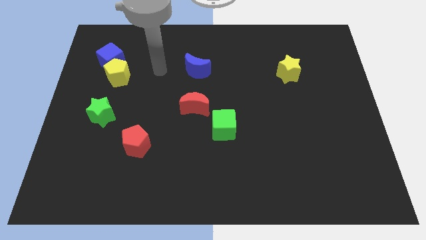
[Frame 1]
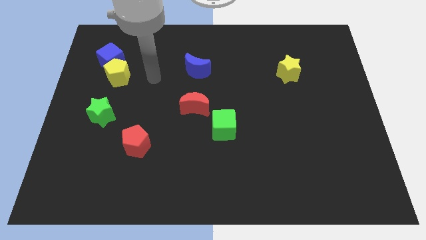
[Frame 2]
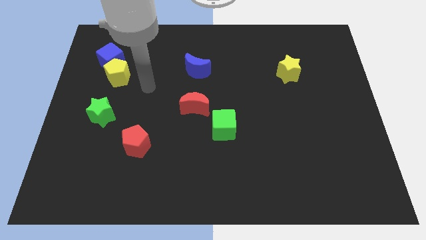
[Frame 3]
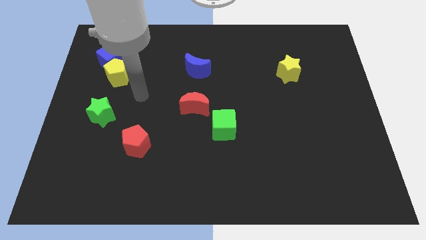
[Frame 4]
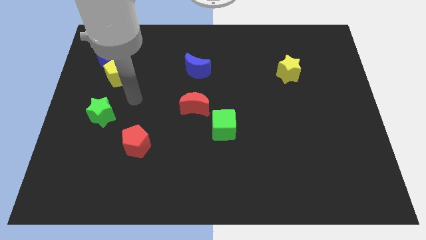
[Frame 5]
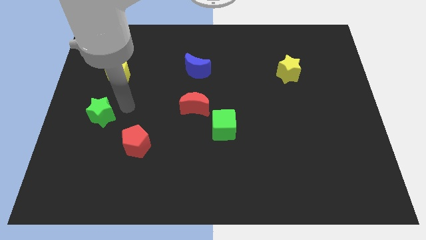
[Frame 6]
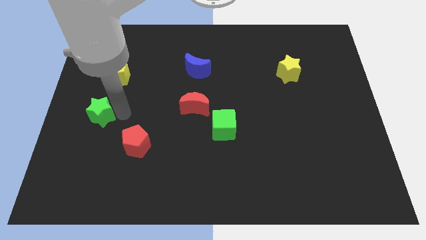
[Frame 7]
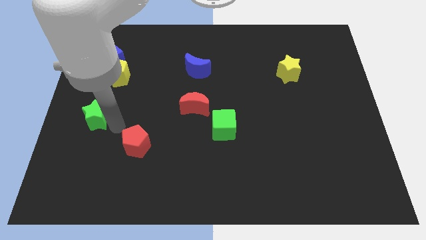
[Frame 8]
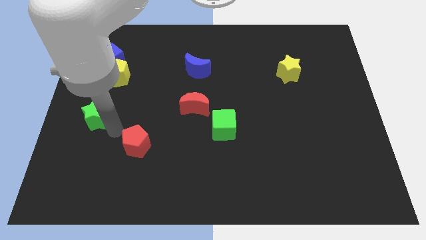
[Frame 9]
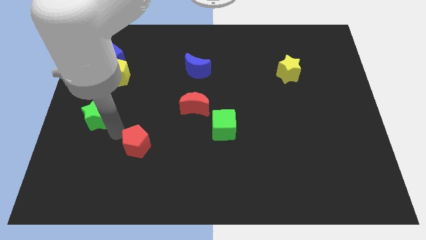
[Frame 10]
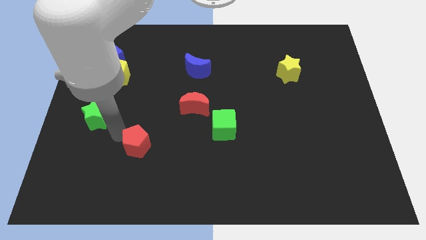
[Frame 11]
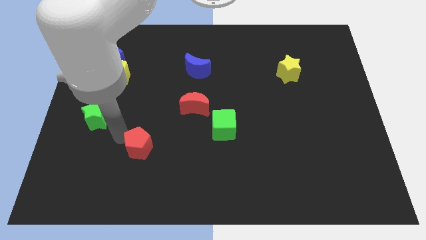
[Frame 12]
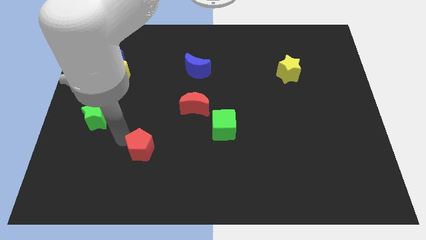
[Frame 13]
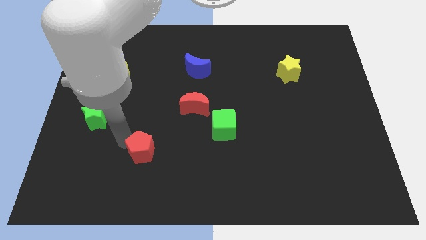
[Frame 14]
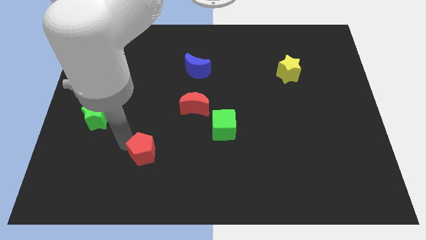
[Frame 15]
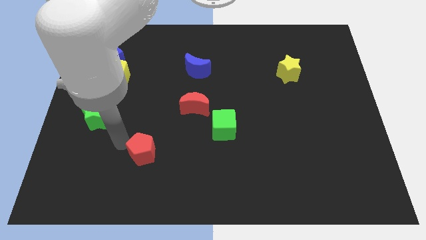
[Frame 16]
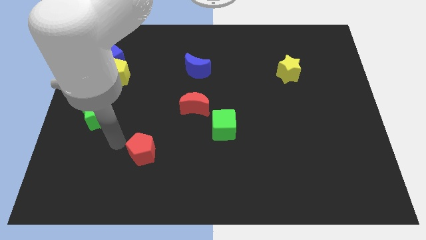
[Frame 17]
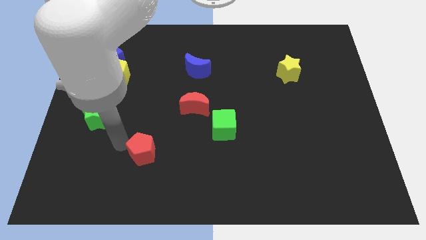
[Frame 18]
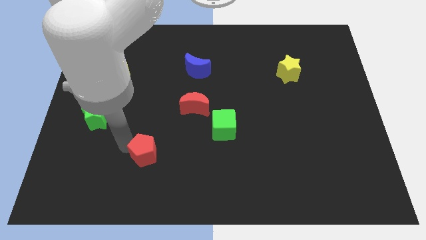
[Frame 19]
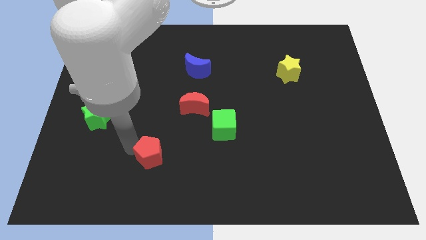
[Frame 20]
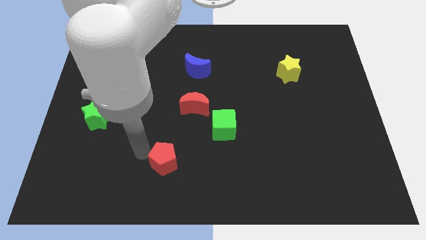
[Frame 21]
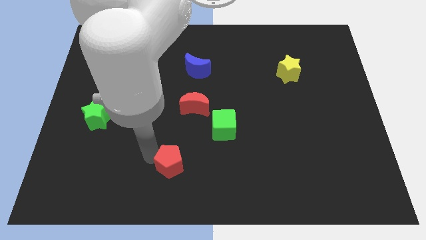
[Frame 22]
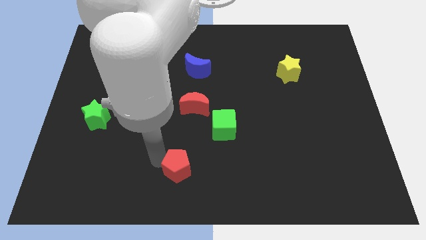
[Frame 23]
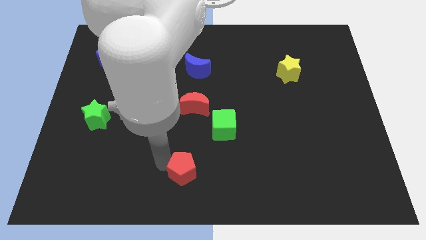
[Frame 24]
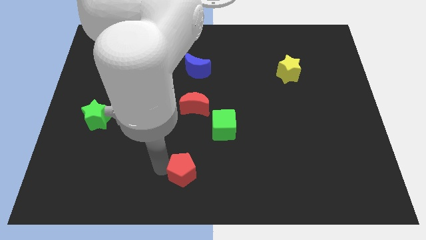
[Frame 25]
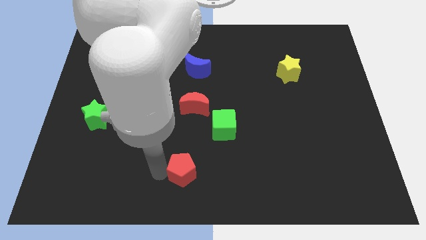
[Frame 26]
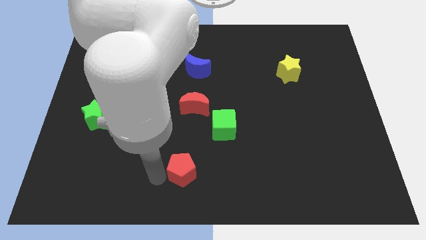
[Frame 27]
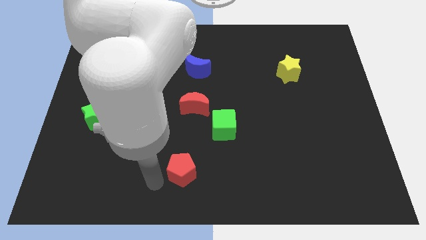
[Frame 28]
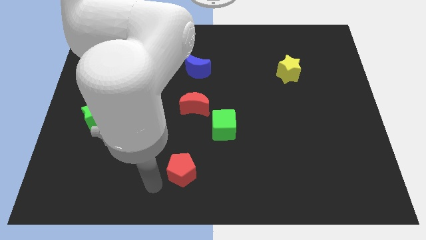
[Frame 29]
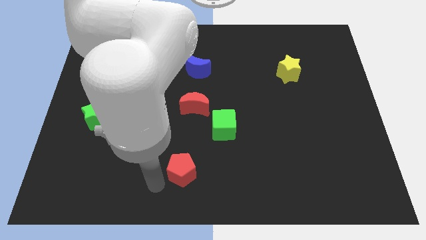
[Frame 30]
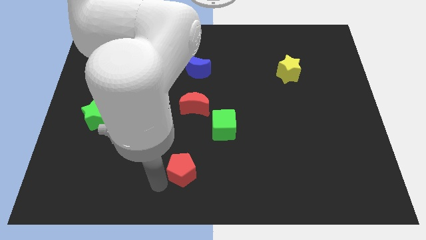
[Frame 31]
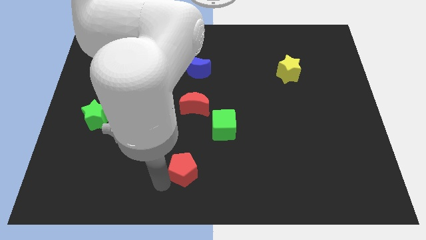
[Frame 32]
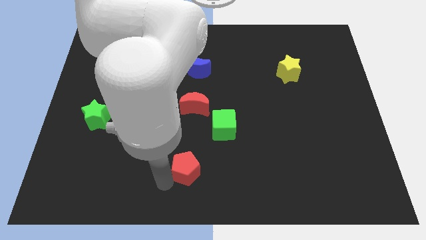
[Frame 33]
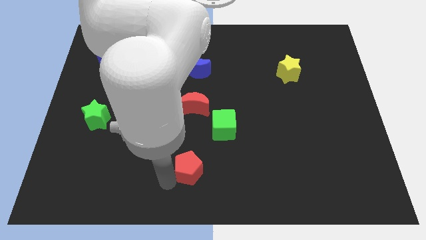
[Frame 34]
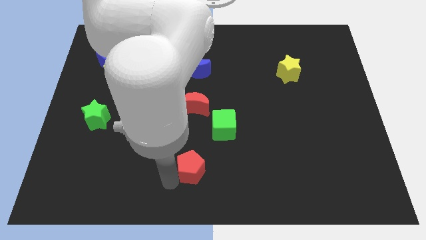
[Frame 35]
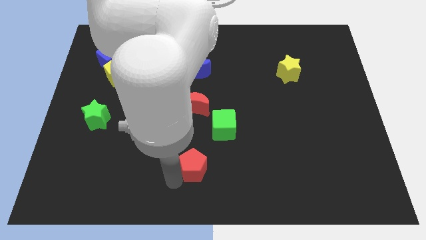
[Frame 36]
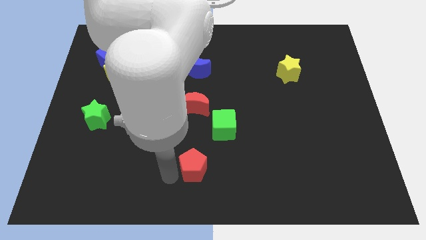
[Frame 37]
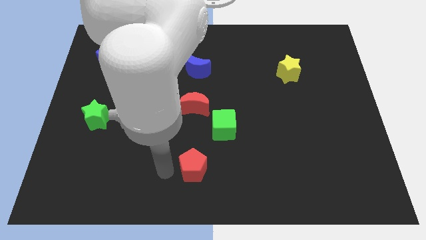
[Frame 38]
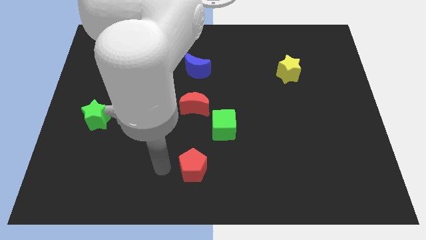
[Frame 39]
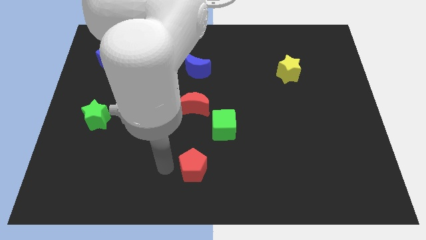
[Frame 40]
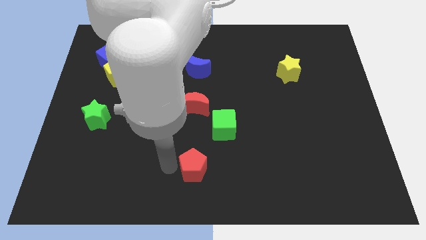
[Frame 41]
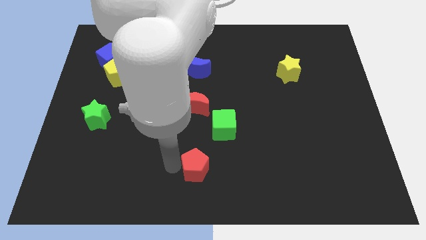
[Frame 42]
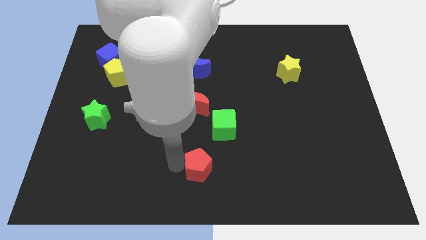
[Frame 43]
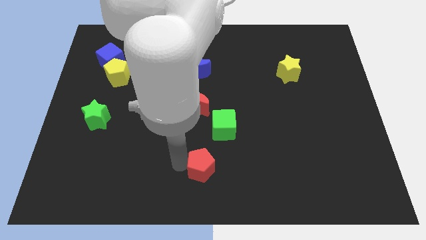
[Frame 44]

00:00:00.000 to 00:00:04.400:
slide the red pentagon below the green cube

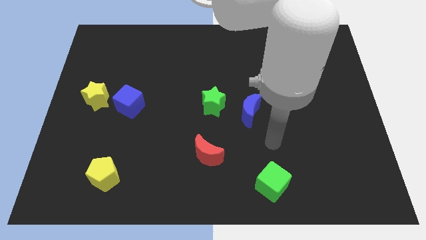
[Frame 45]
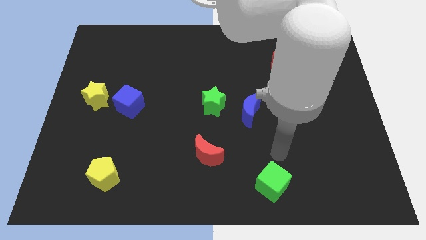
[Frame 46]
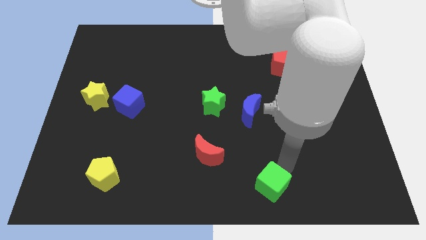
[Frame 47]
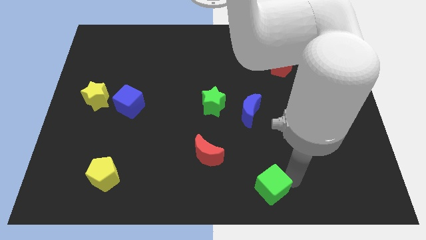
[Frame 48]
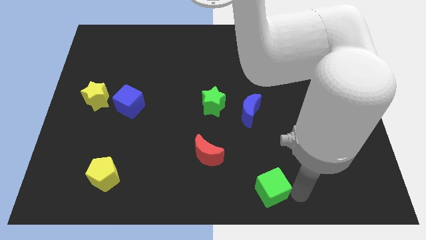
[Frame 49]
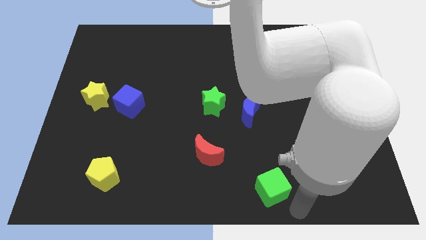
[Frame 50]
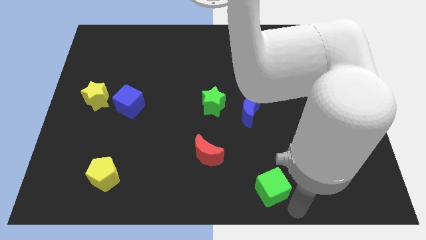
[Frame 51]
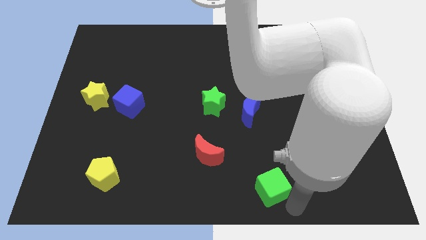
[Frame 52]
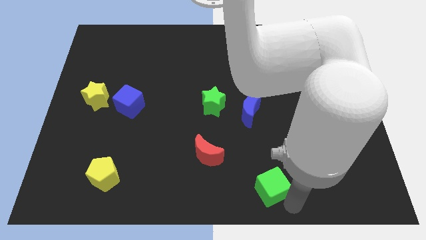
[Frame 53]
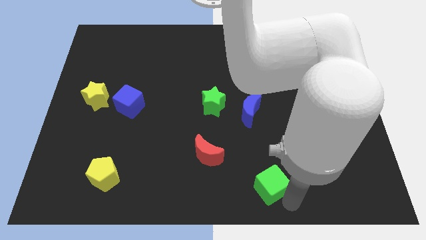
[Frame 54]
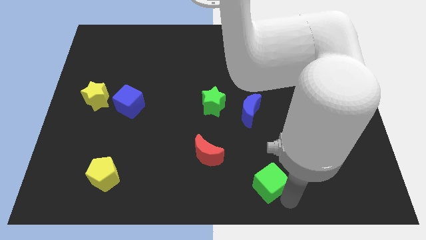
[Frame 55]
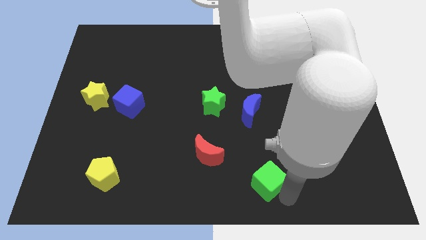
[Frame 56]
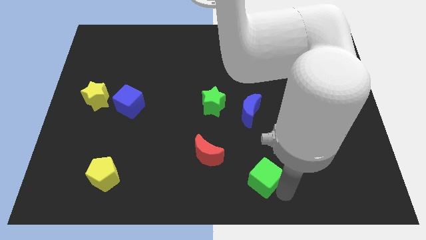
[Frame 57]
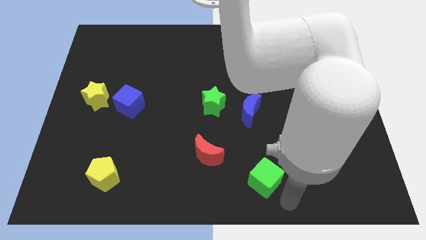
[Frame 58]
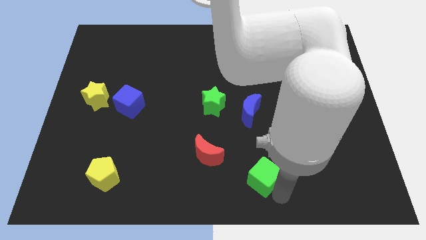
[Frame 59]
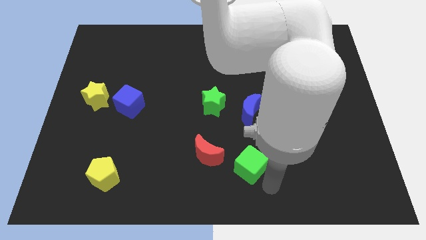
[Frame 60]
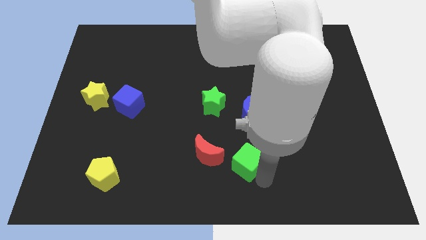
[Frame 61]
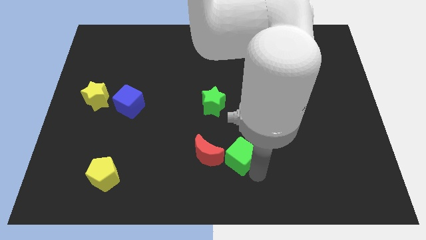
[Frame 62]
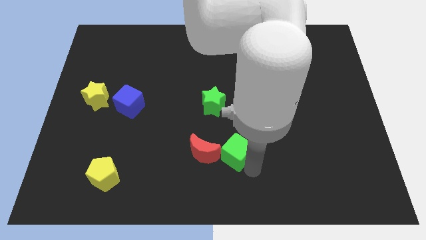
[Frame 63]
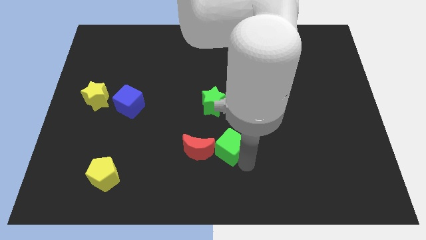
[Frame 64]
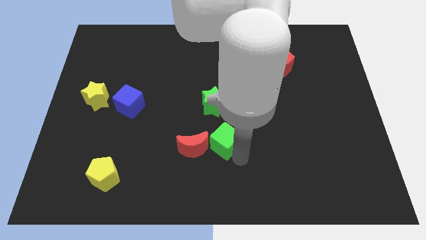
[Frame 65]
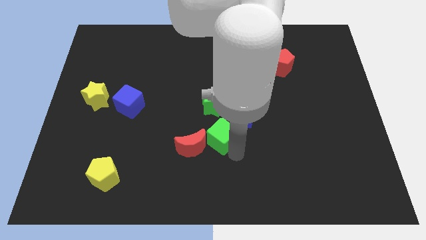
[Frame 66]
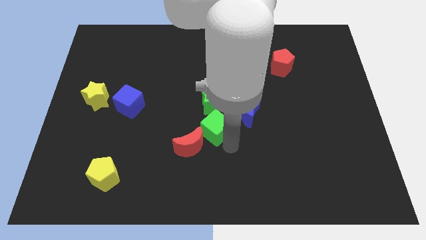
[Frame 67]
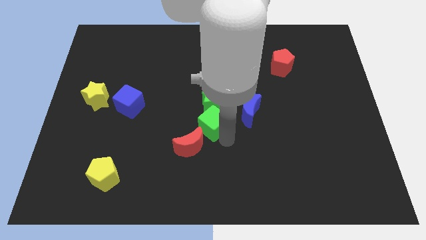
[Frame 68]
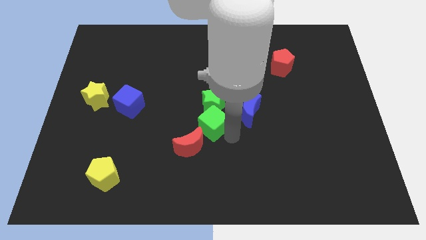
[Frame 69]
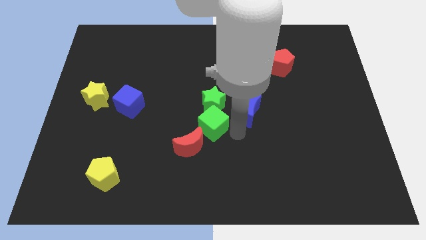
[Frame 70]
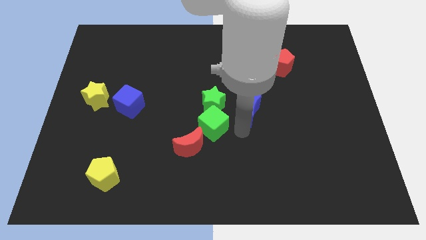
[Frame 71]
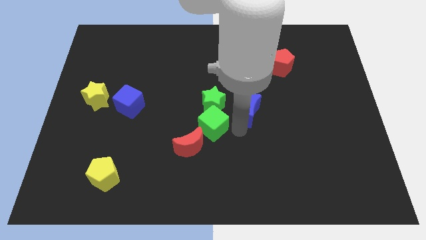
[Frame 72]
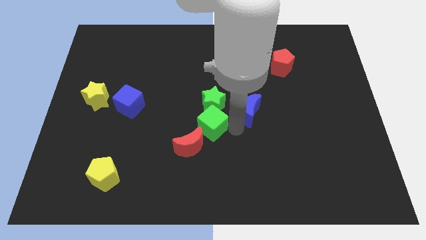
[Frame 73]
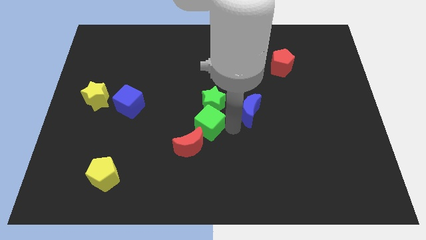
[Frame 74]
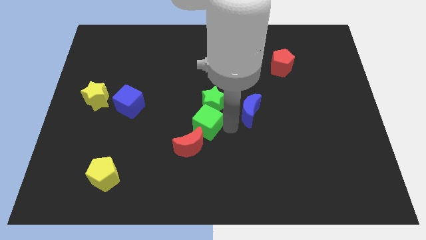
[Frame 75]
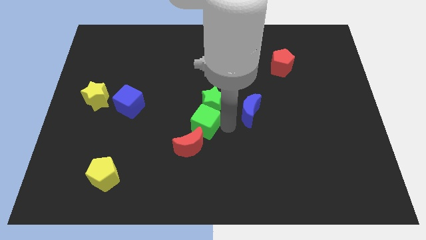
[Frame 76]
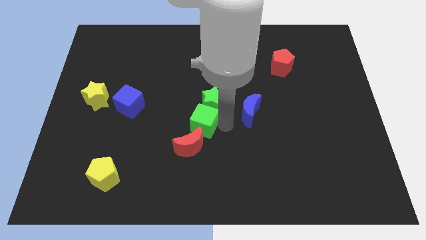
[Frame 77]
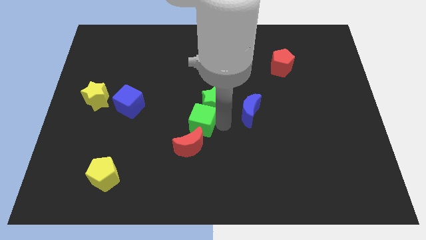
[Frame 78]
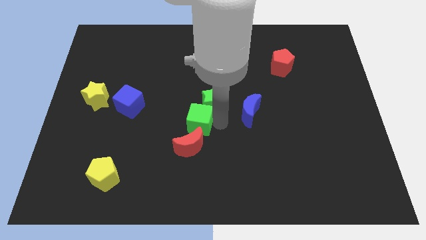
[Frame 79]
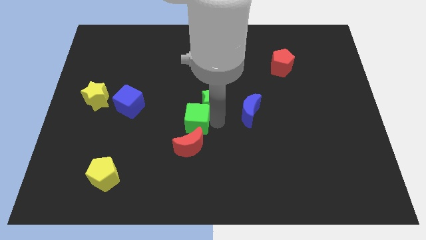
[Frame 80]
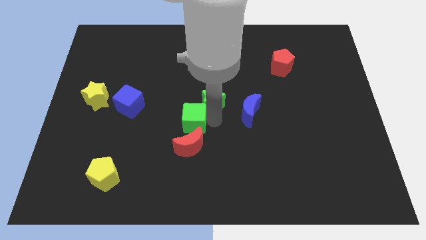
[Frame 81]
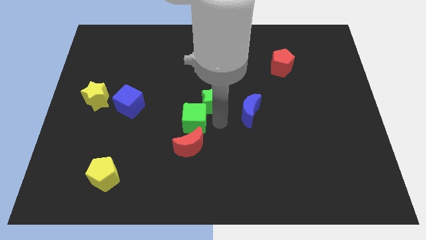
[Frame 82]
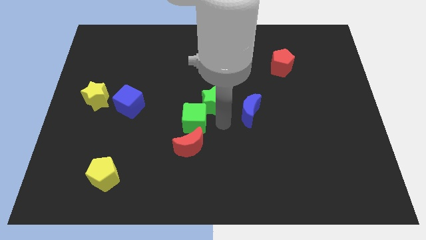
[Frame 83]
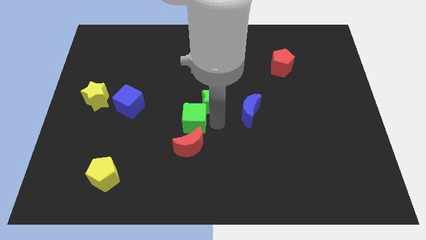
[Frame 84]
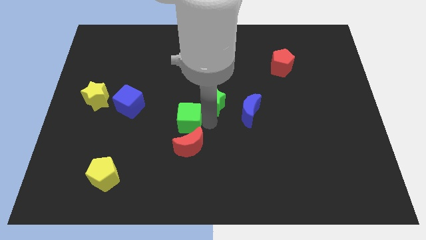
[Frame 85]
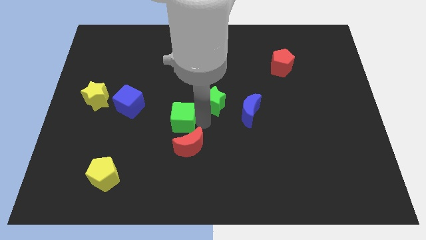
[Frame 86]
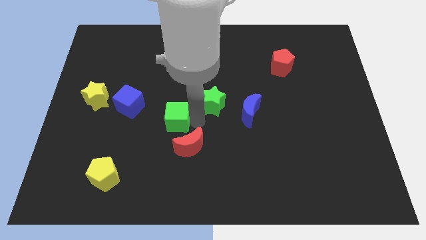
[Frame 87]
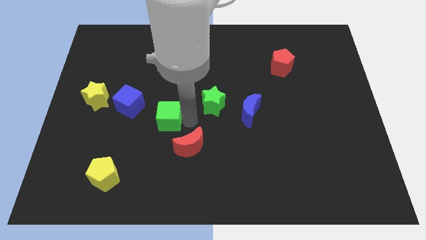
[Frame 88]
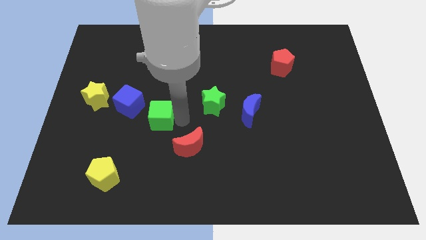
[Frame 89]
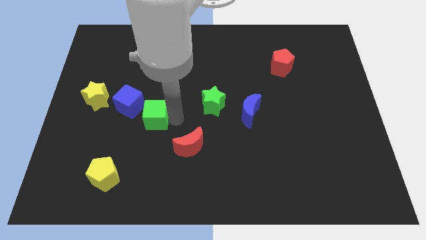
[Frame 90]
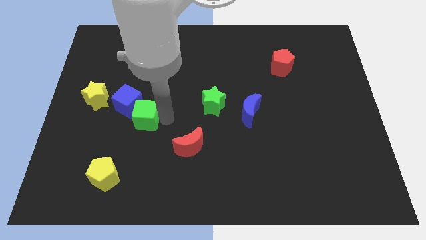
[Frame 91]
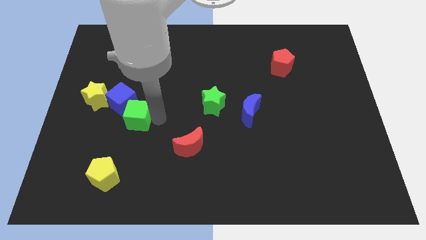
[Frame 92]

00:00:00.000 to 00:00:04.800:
put the green cube to the bottom right side of the yellow star
